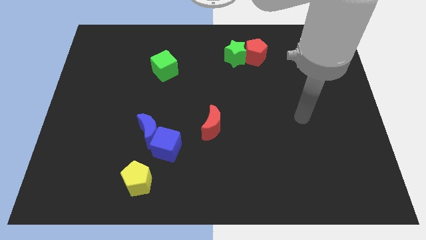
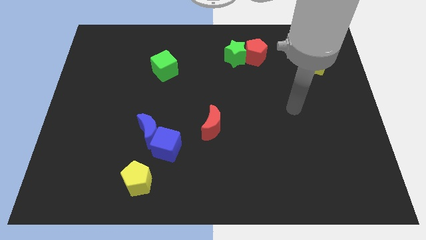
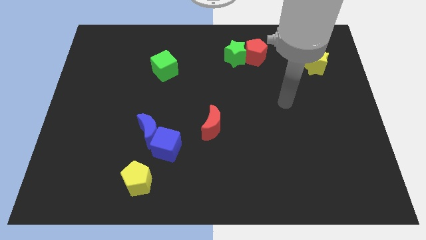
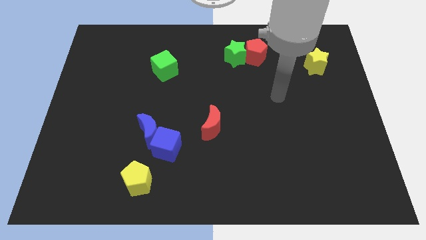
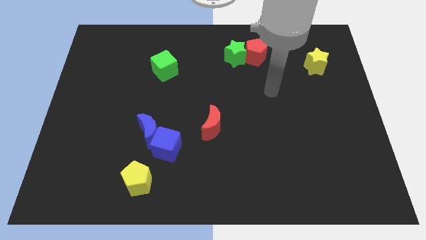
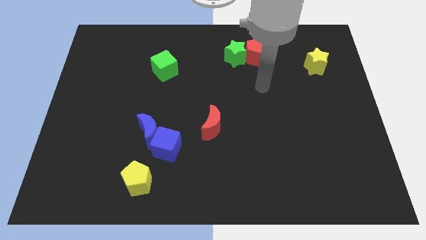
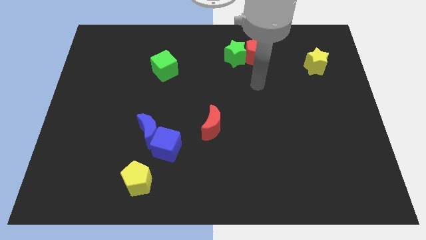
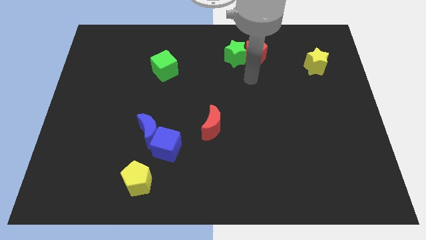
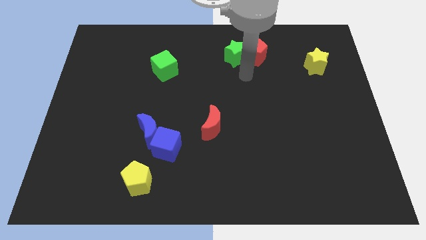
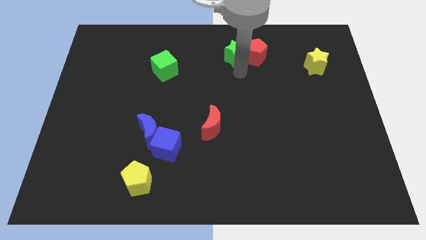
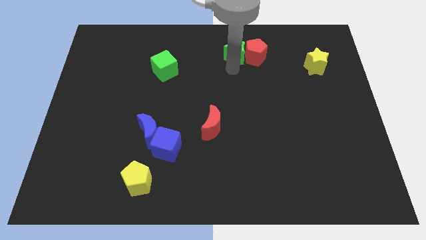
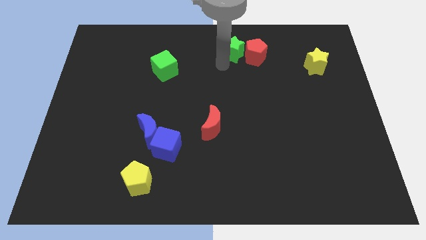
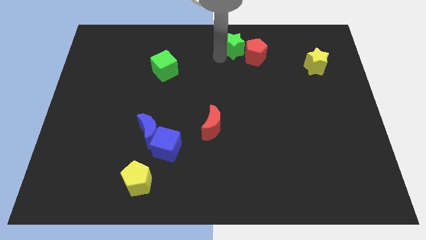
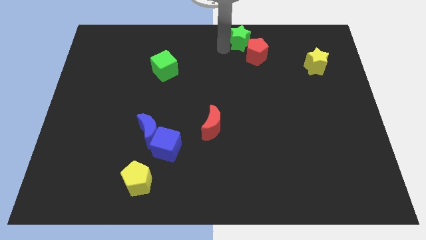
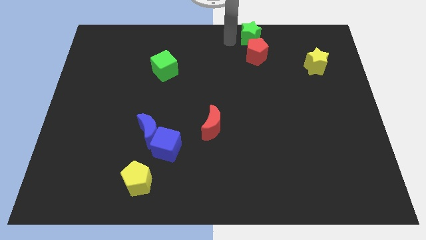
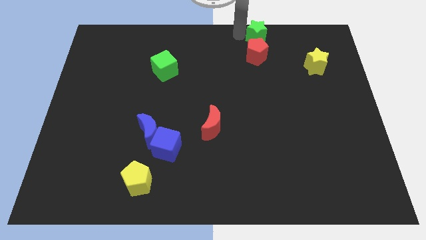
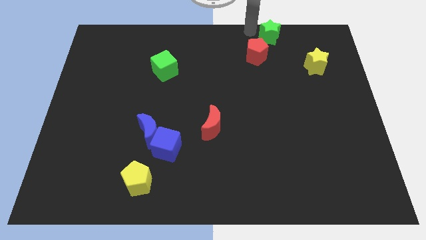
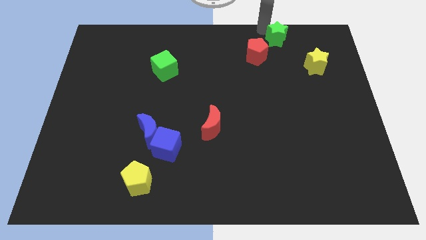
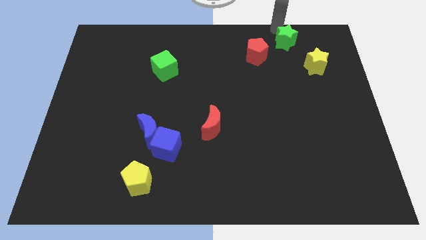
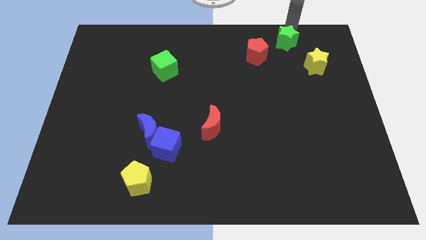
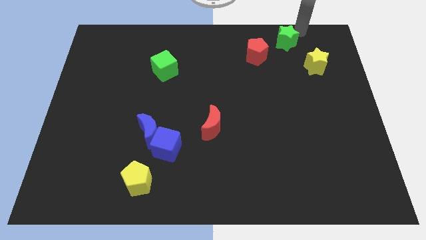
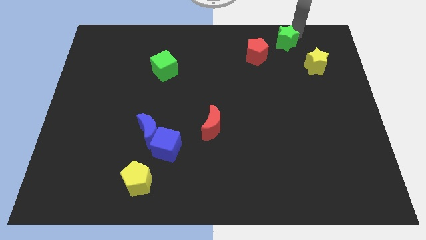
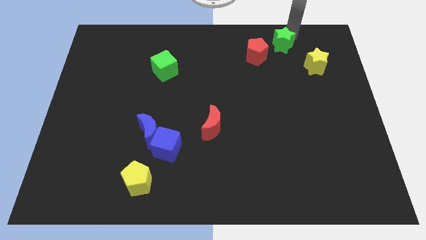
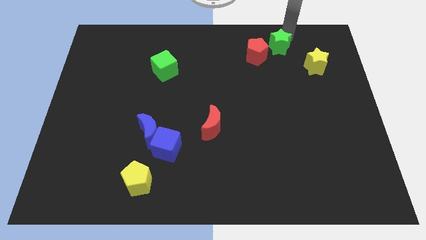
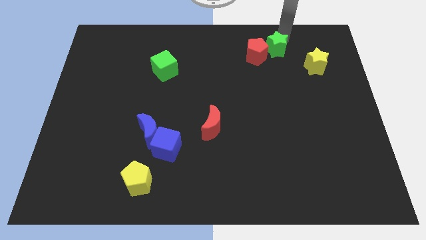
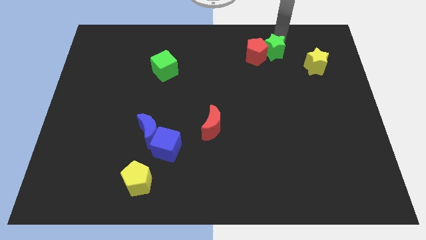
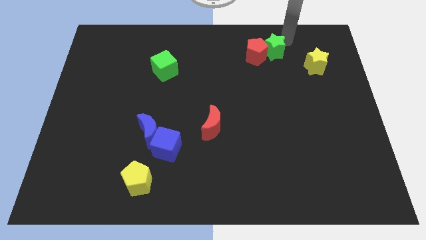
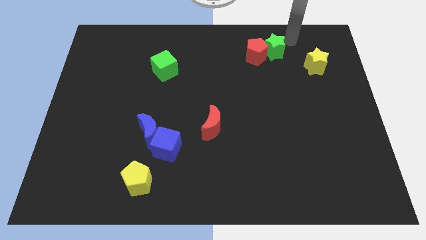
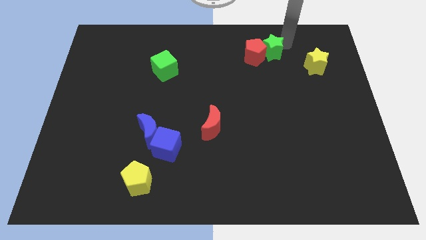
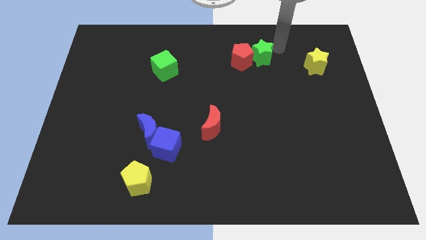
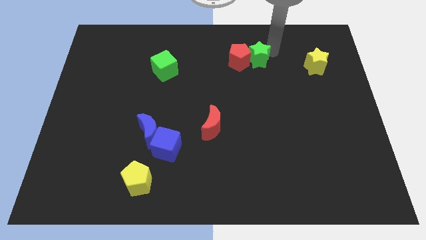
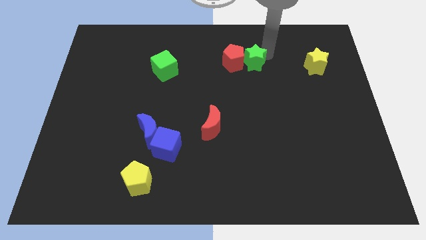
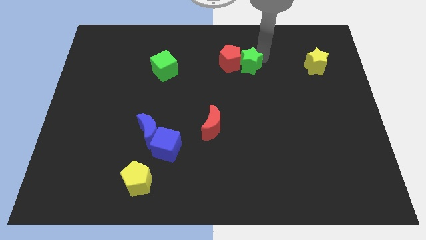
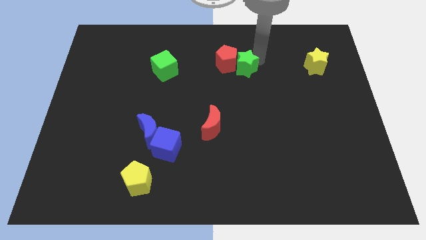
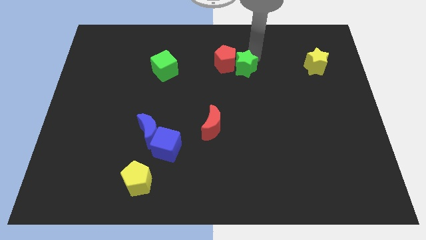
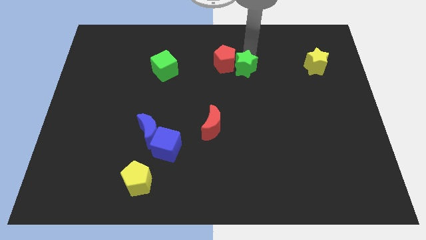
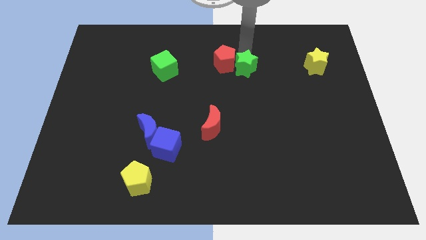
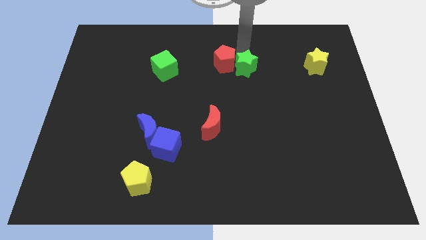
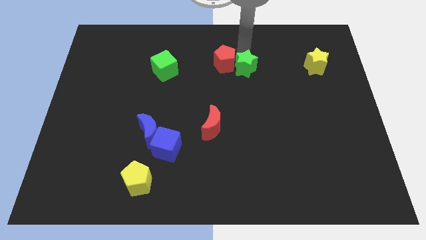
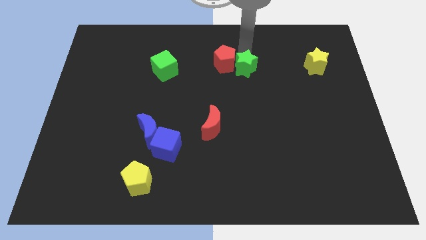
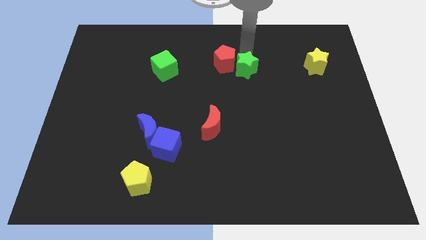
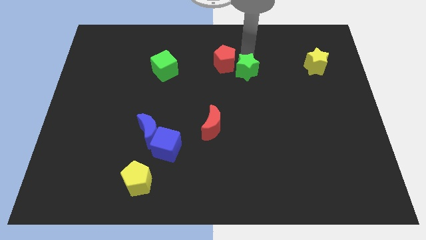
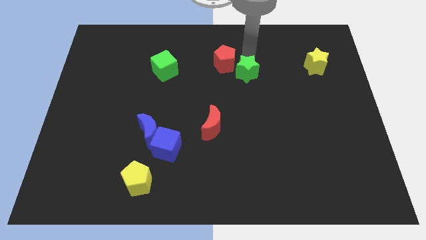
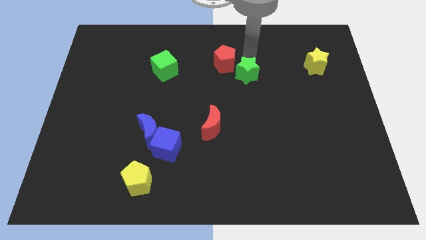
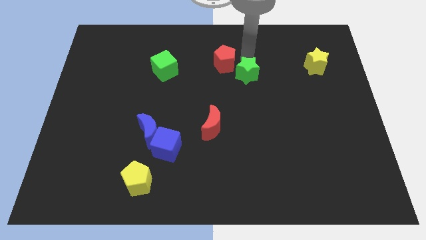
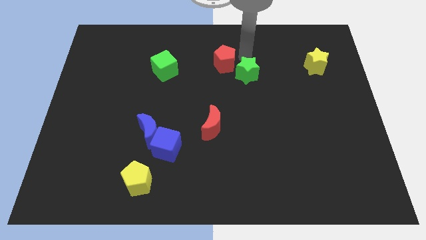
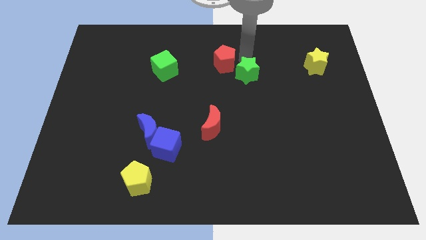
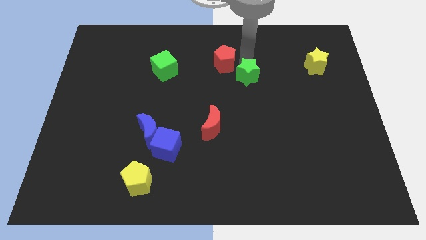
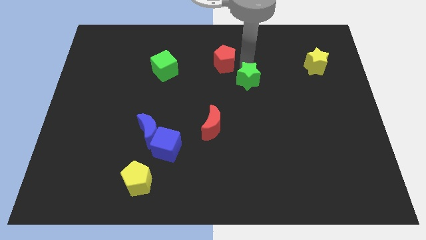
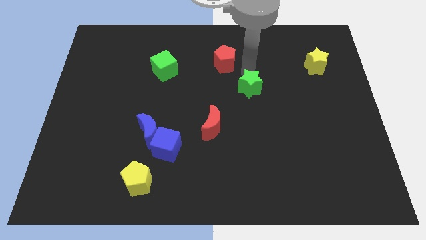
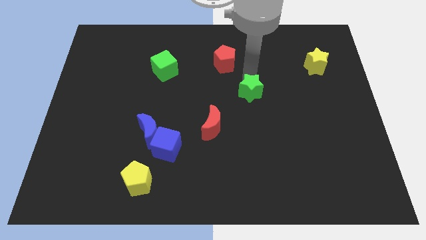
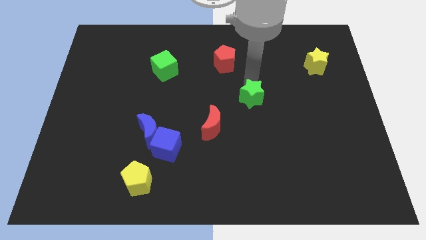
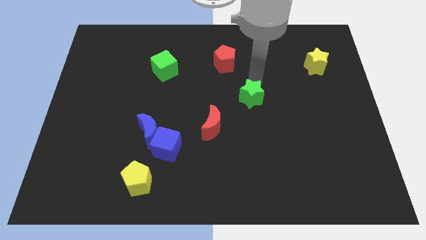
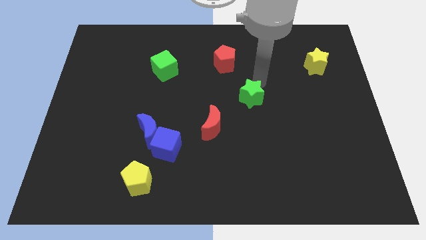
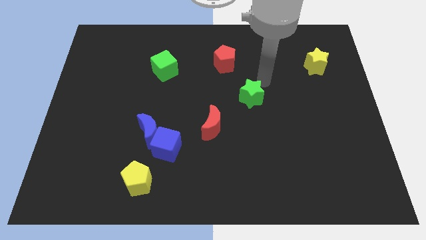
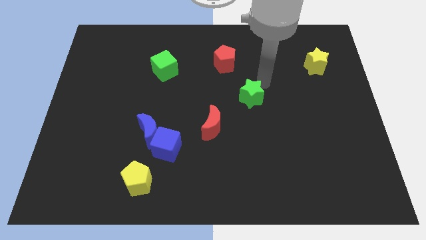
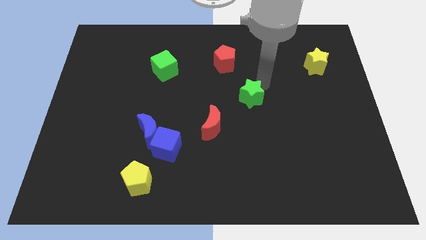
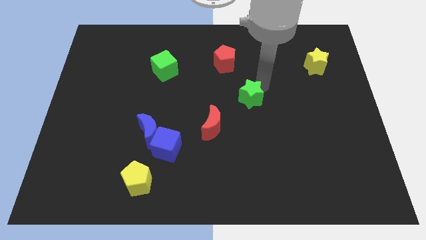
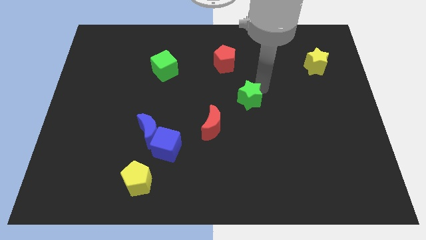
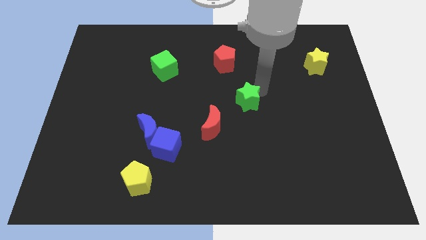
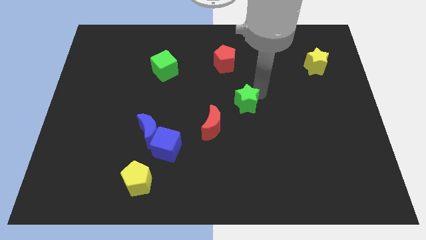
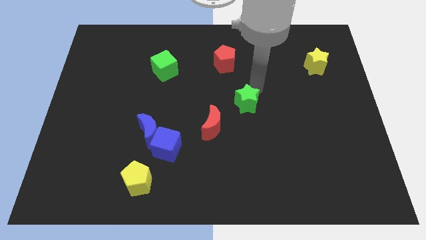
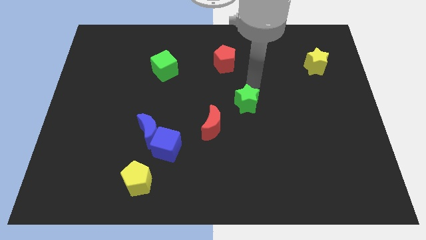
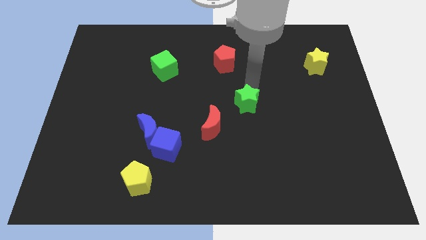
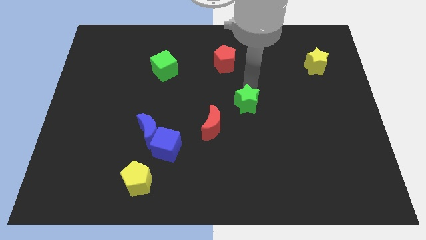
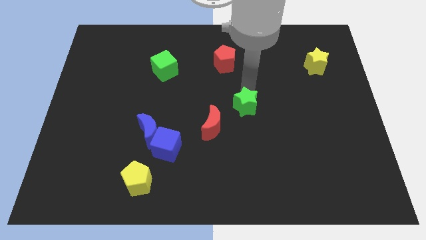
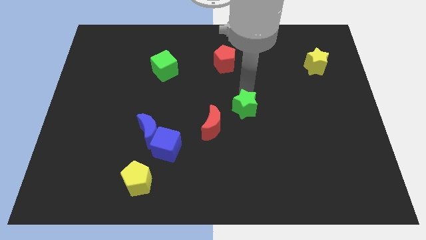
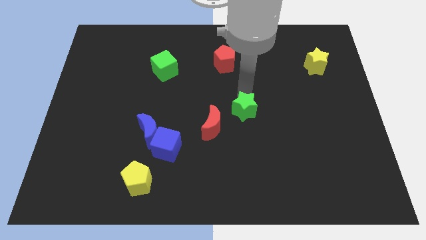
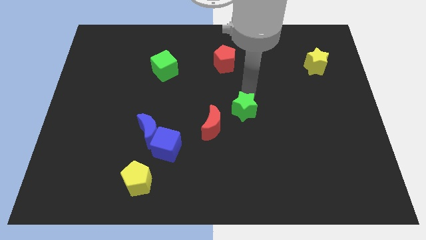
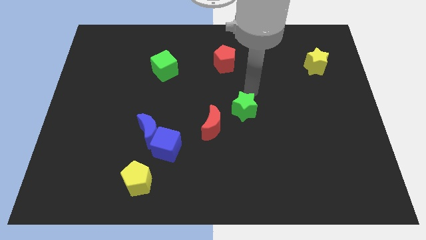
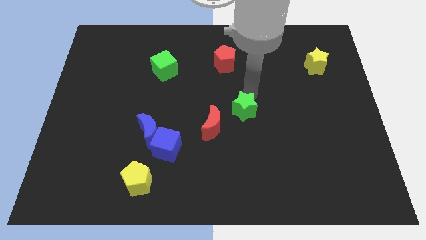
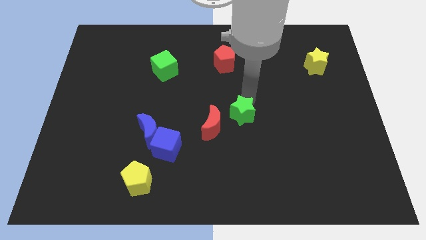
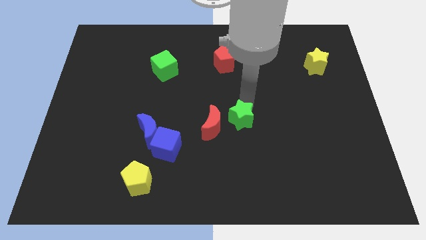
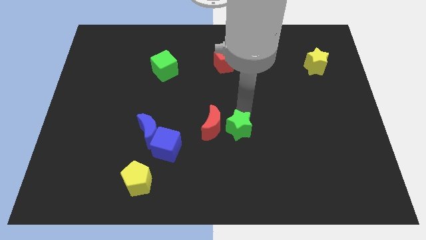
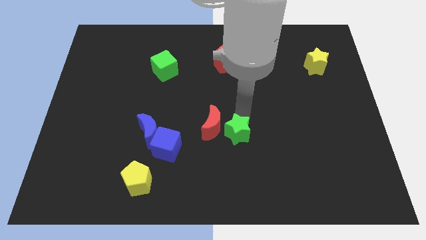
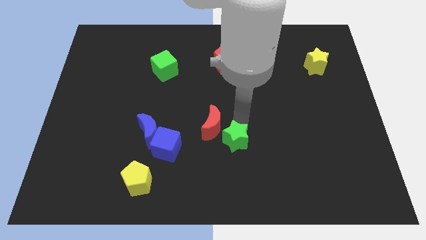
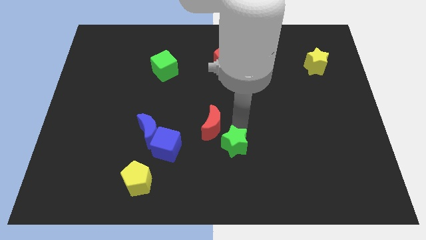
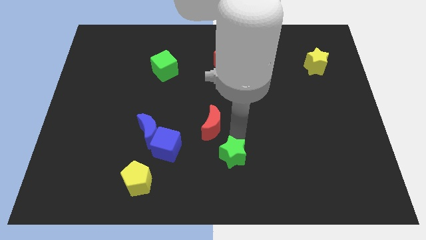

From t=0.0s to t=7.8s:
slide the green star to the bottom
